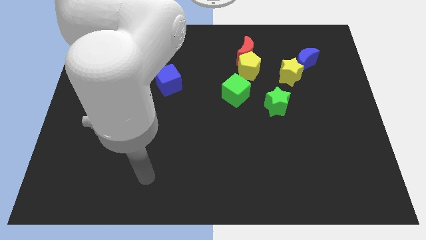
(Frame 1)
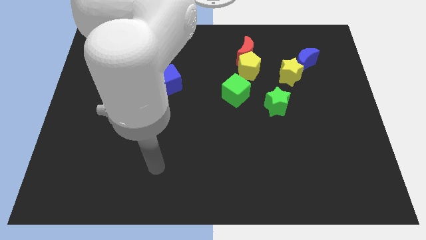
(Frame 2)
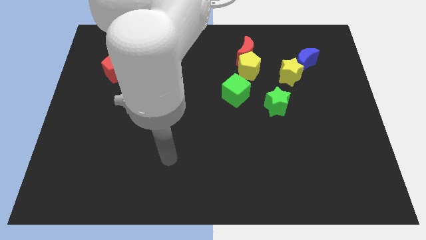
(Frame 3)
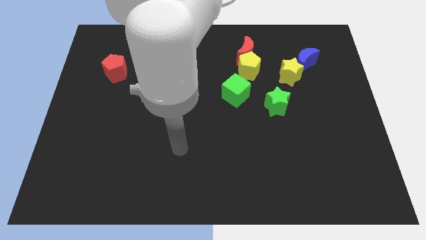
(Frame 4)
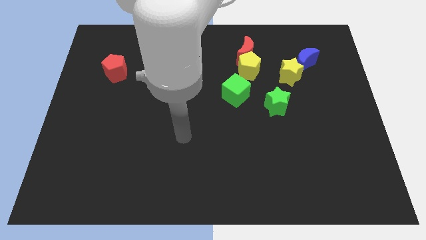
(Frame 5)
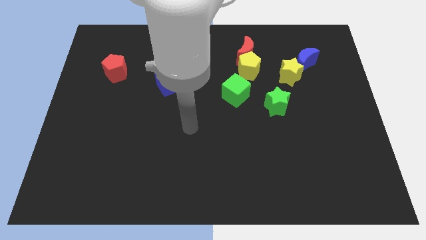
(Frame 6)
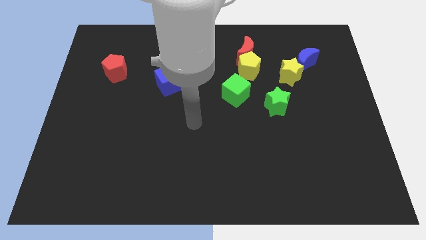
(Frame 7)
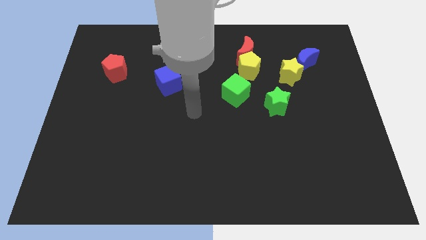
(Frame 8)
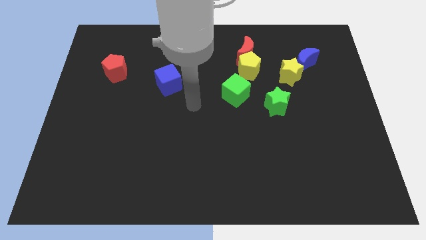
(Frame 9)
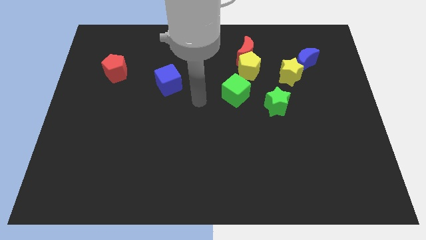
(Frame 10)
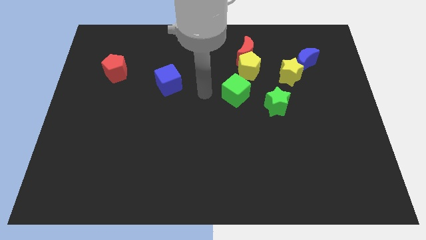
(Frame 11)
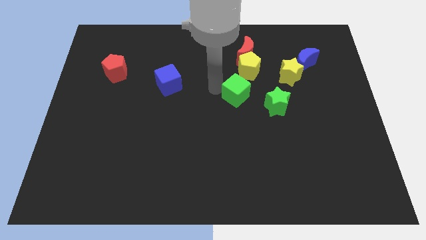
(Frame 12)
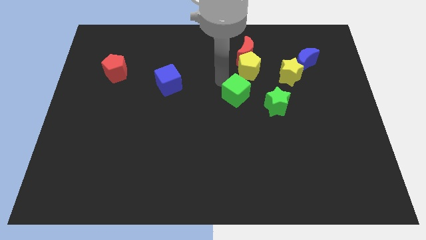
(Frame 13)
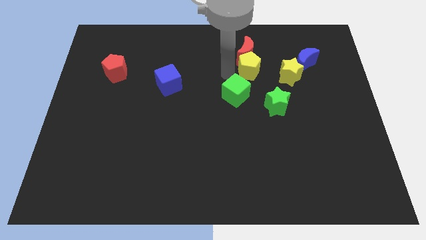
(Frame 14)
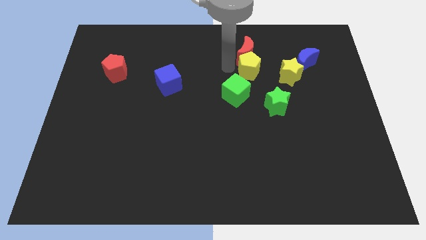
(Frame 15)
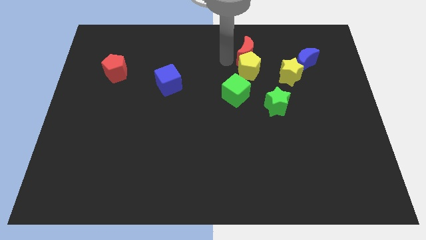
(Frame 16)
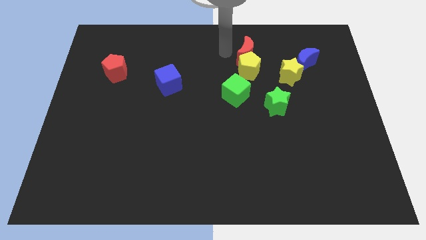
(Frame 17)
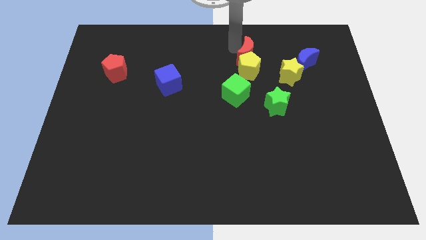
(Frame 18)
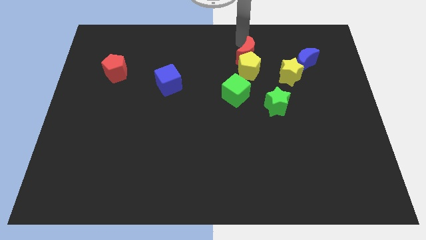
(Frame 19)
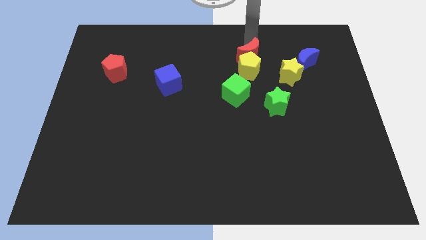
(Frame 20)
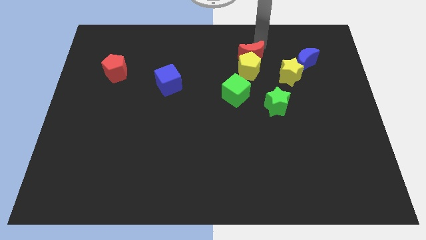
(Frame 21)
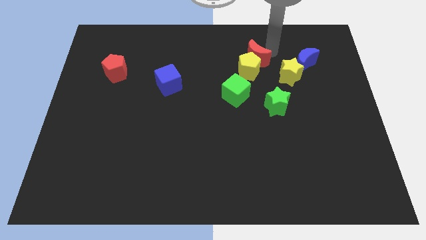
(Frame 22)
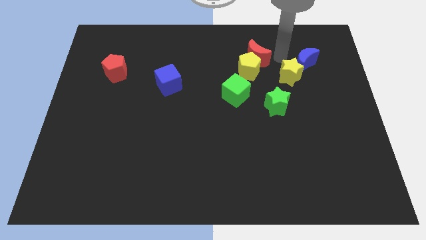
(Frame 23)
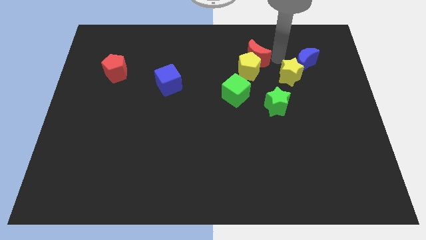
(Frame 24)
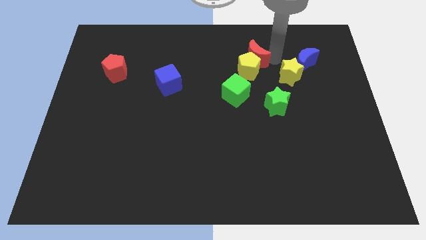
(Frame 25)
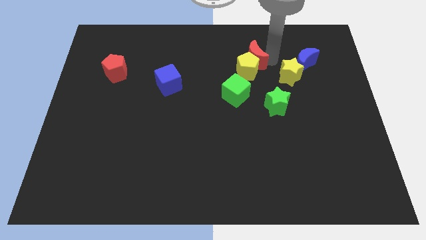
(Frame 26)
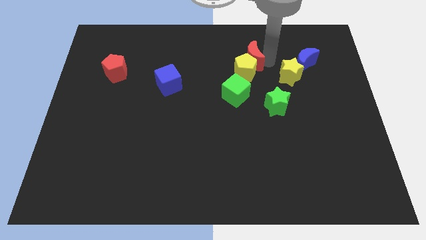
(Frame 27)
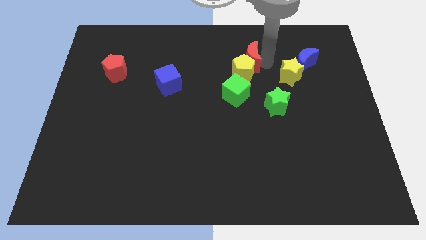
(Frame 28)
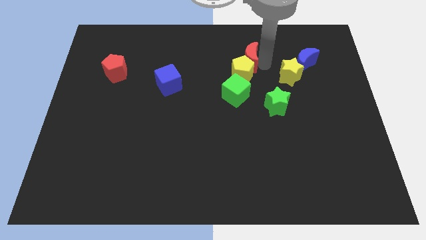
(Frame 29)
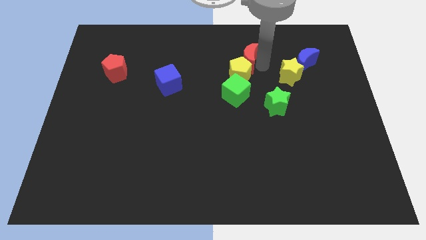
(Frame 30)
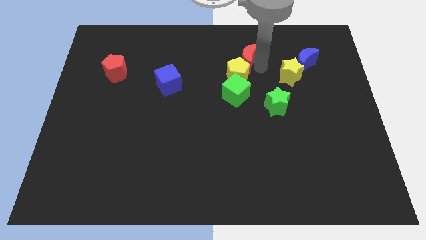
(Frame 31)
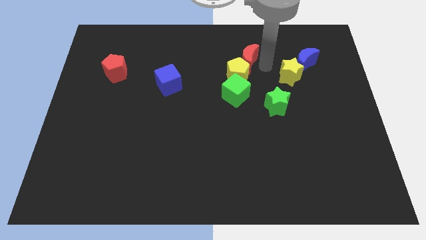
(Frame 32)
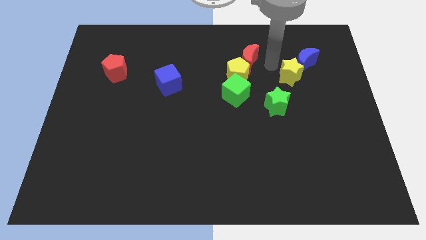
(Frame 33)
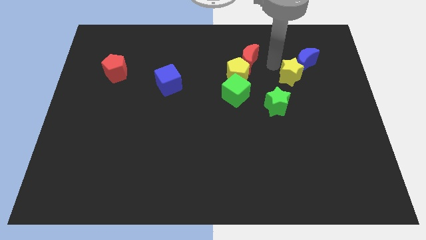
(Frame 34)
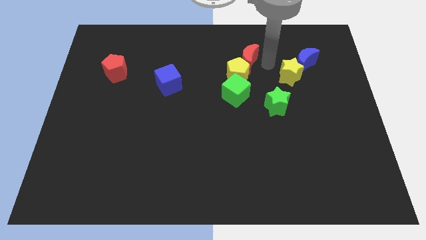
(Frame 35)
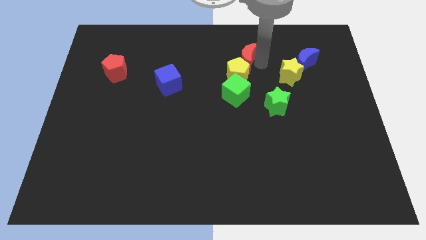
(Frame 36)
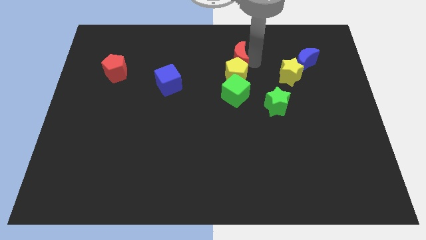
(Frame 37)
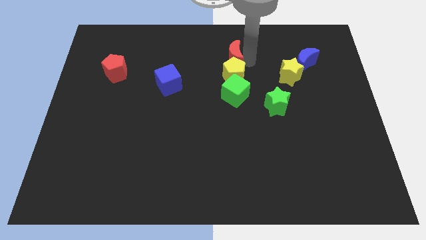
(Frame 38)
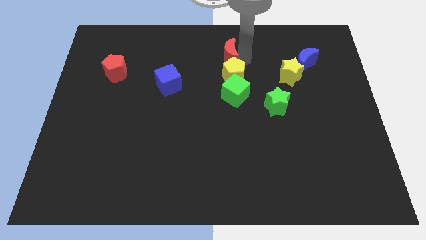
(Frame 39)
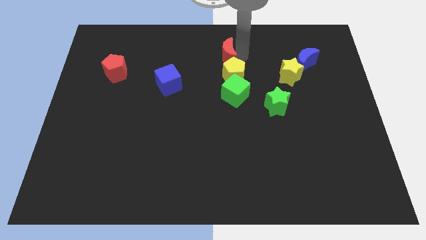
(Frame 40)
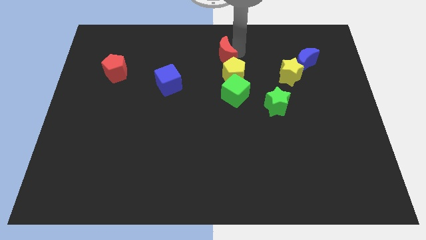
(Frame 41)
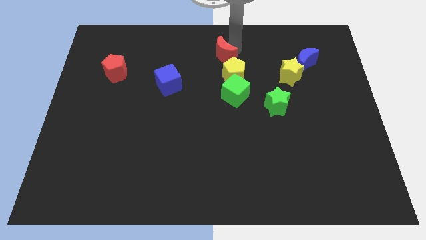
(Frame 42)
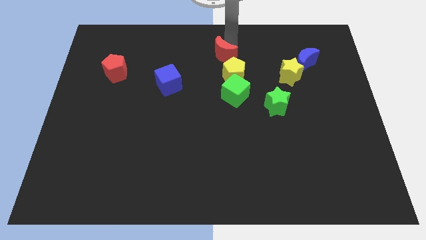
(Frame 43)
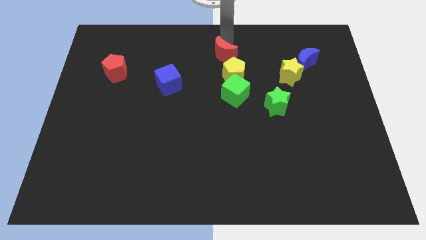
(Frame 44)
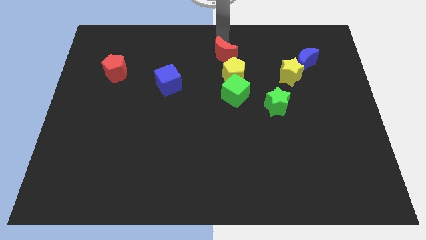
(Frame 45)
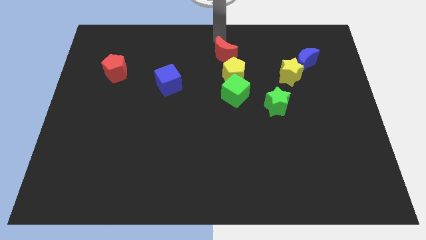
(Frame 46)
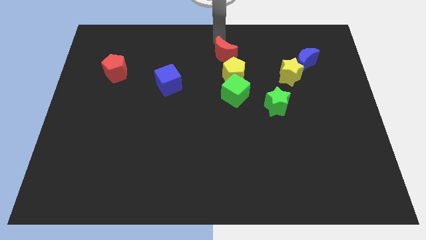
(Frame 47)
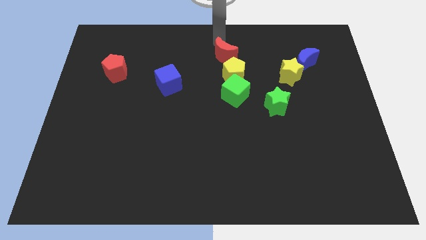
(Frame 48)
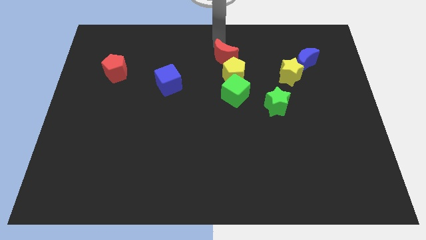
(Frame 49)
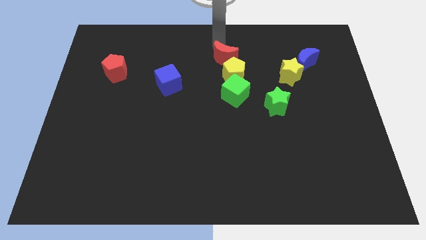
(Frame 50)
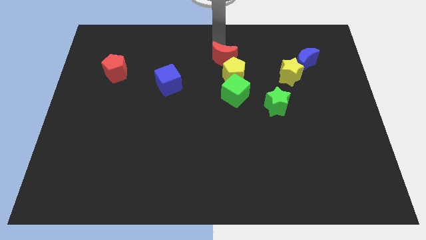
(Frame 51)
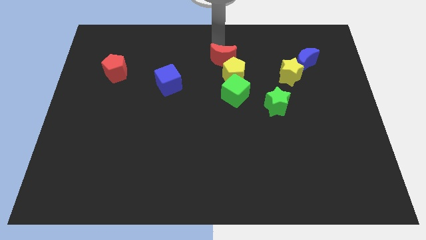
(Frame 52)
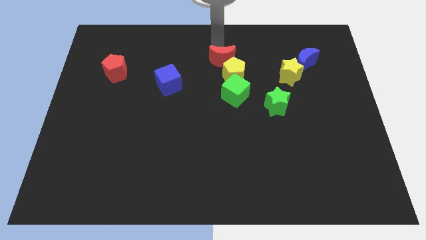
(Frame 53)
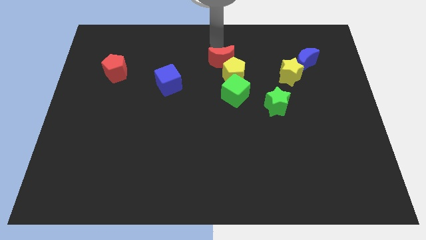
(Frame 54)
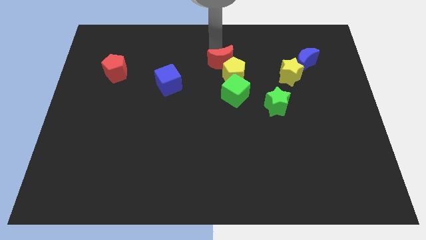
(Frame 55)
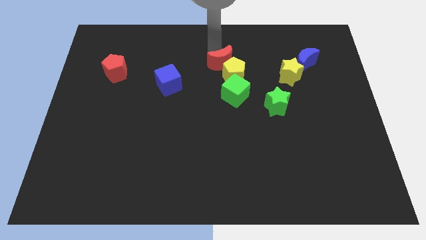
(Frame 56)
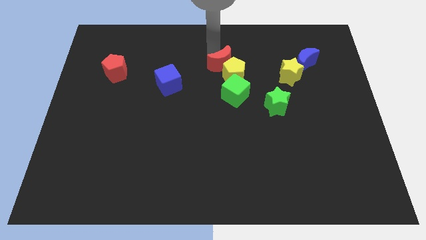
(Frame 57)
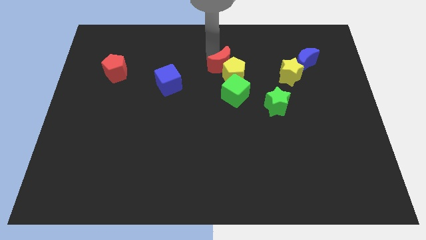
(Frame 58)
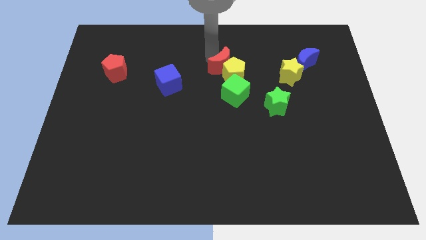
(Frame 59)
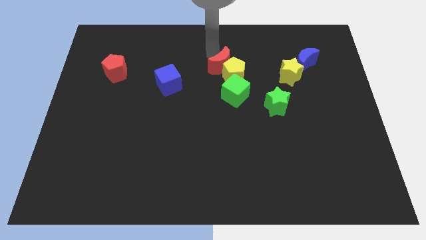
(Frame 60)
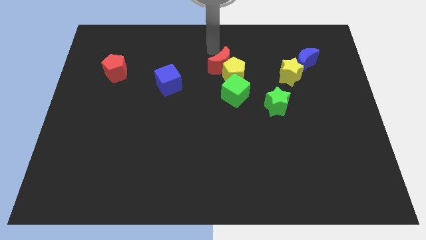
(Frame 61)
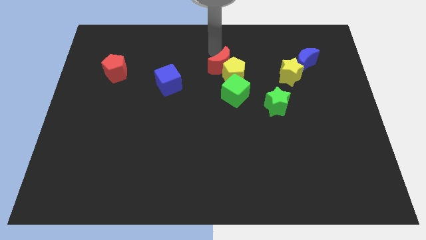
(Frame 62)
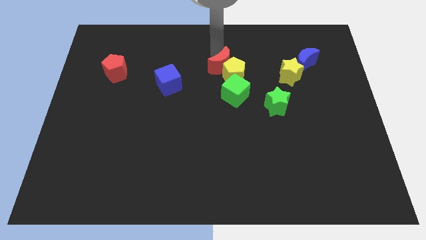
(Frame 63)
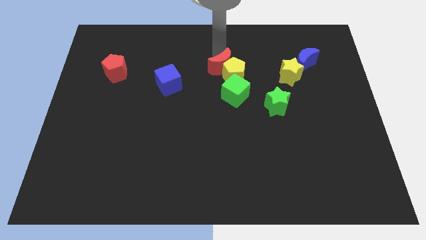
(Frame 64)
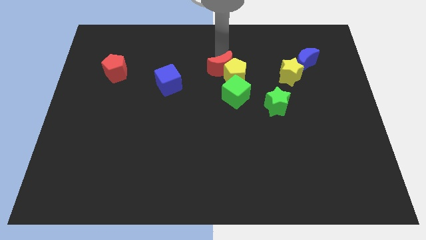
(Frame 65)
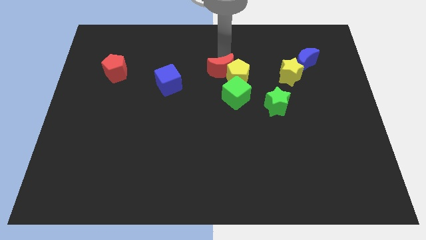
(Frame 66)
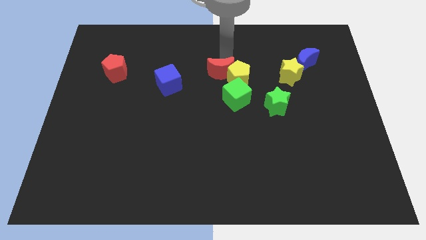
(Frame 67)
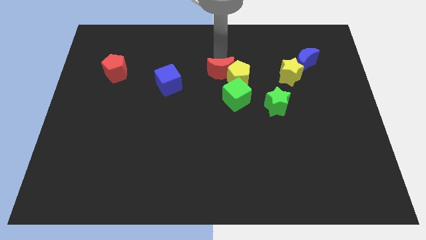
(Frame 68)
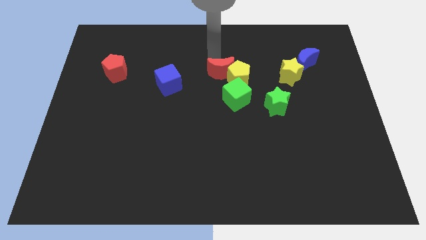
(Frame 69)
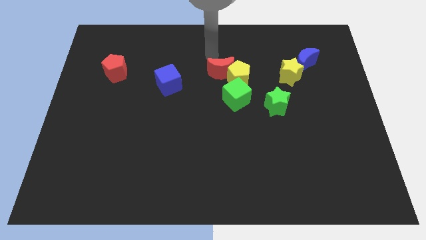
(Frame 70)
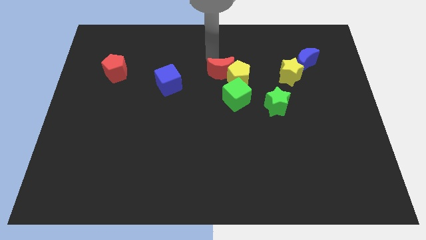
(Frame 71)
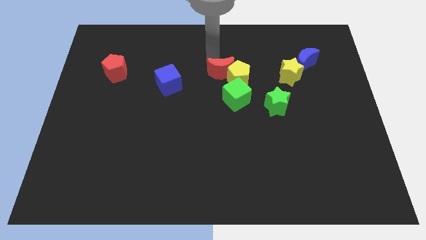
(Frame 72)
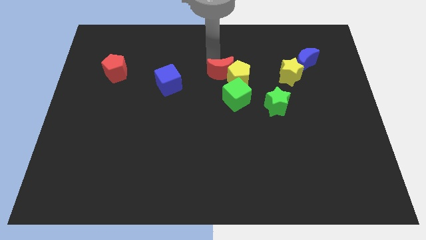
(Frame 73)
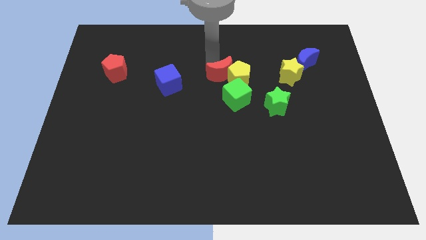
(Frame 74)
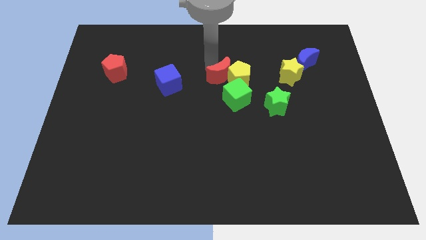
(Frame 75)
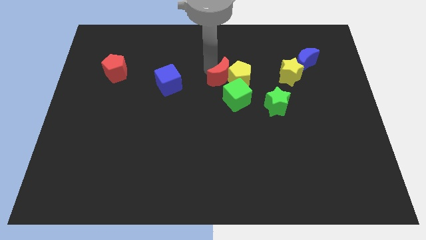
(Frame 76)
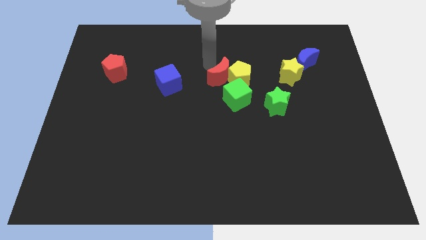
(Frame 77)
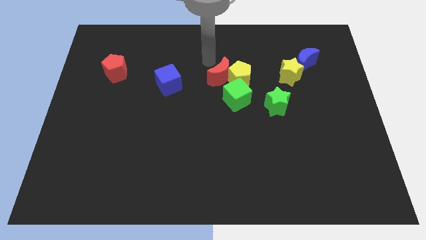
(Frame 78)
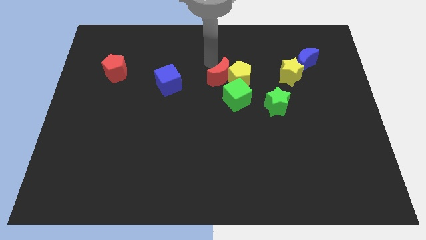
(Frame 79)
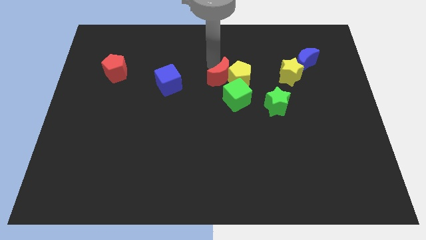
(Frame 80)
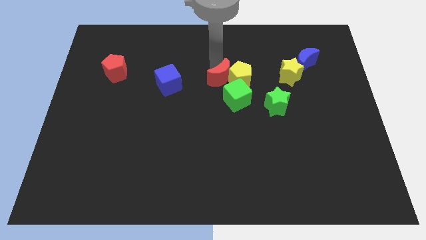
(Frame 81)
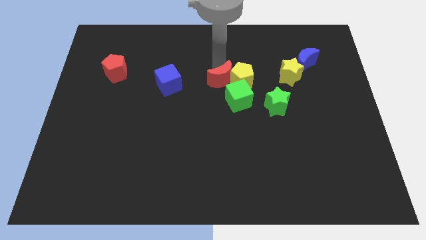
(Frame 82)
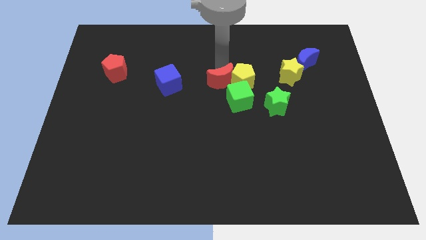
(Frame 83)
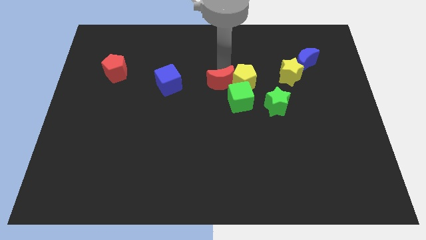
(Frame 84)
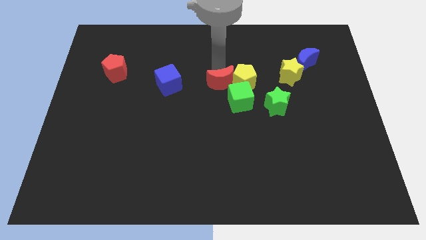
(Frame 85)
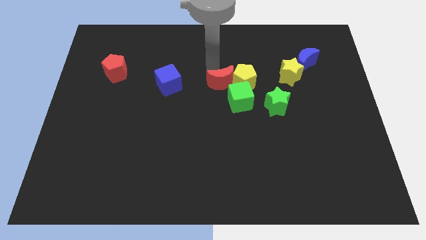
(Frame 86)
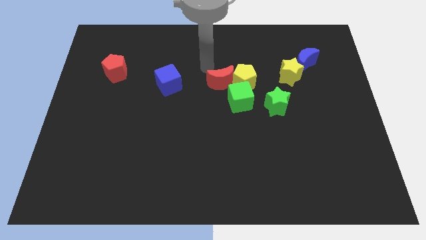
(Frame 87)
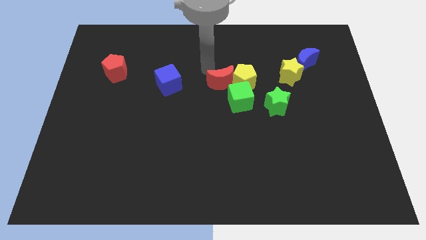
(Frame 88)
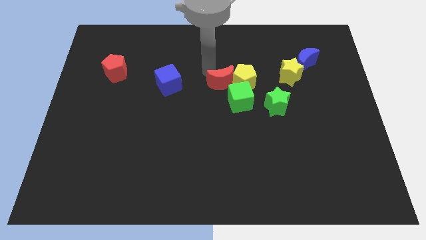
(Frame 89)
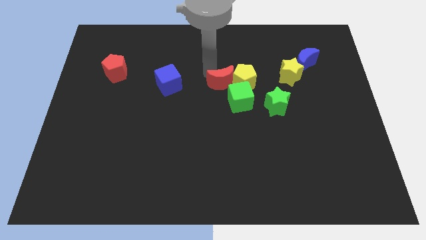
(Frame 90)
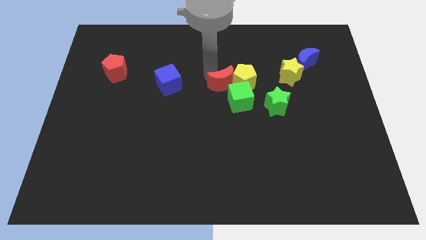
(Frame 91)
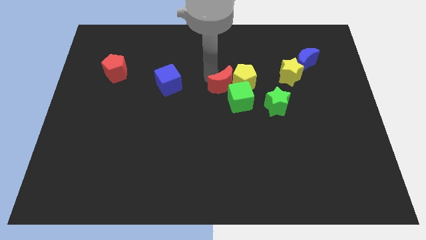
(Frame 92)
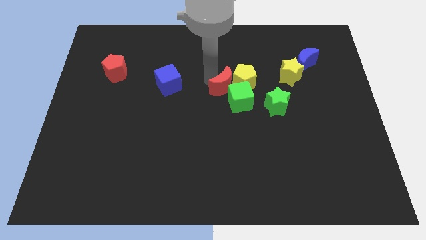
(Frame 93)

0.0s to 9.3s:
slide the red moon next to the green cube
